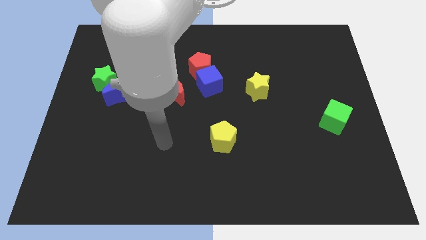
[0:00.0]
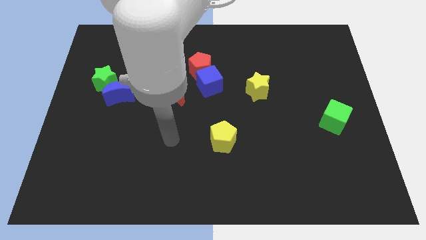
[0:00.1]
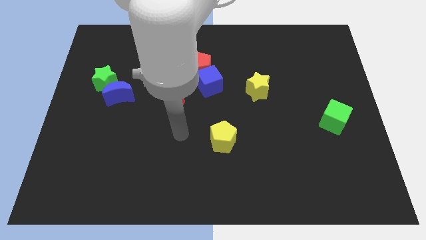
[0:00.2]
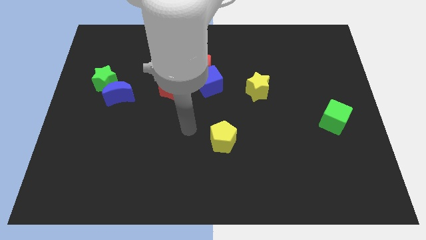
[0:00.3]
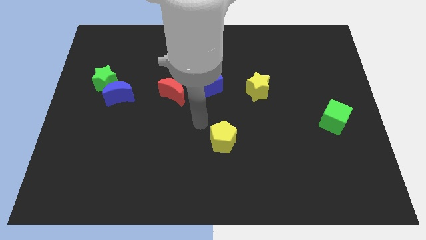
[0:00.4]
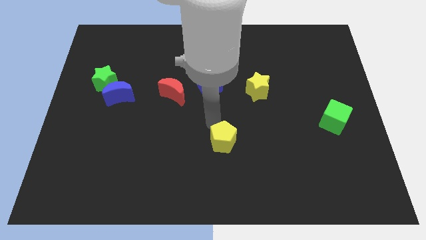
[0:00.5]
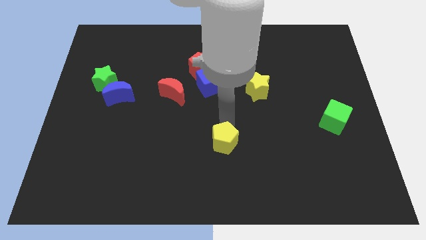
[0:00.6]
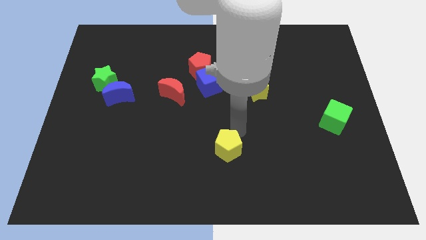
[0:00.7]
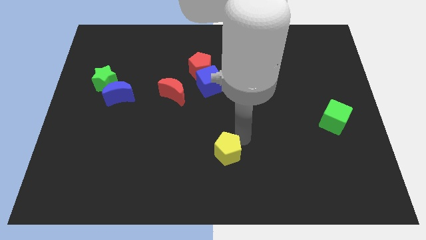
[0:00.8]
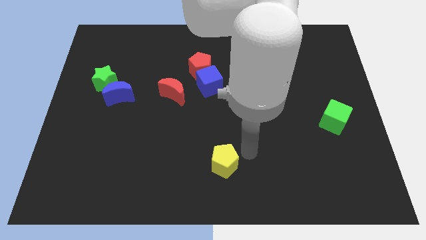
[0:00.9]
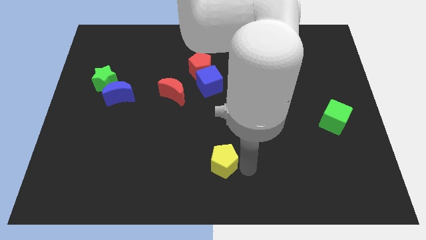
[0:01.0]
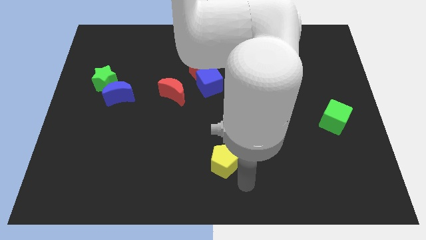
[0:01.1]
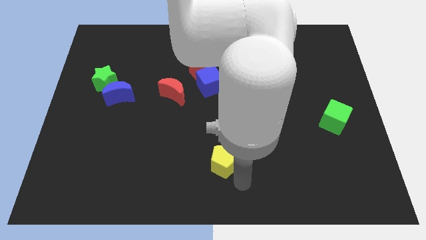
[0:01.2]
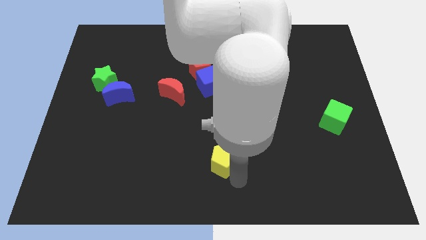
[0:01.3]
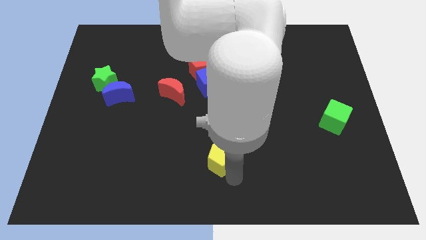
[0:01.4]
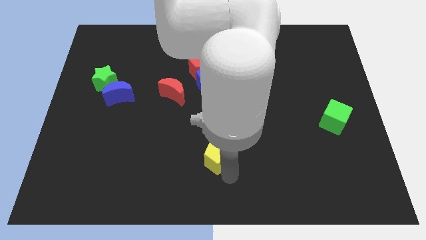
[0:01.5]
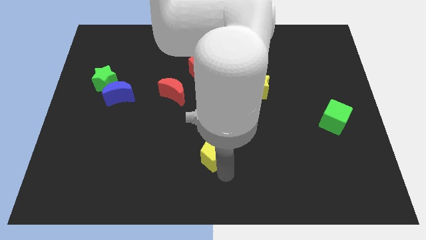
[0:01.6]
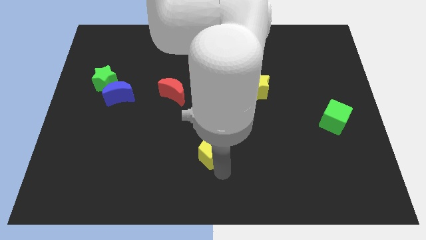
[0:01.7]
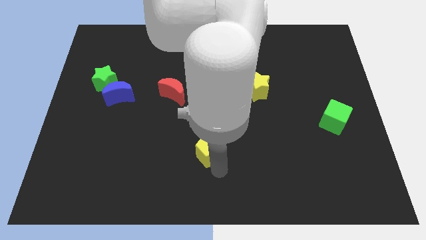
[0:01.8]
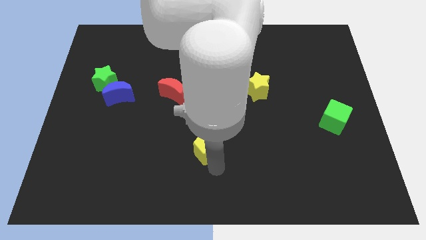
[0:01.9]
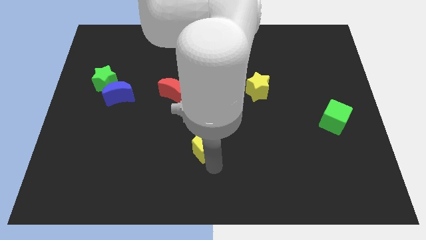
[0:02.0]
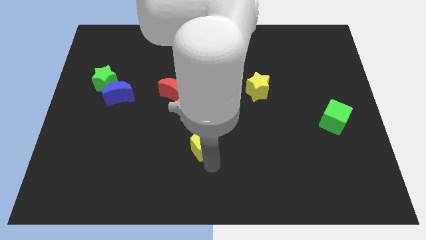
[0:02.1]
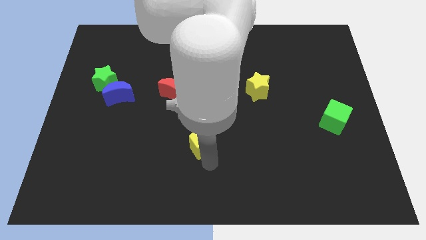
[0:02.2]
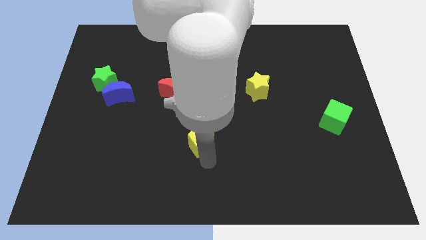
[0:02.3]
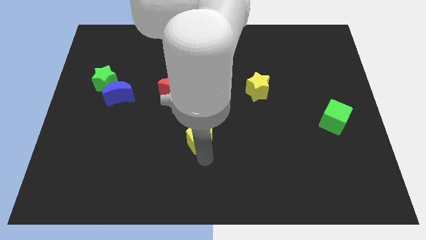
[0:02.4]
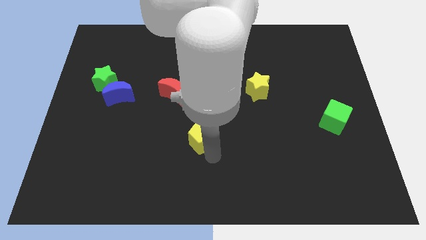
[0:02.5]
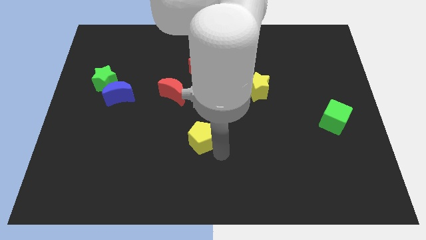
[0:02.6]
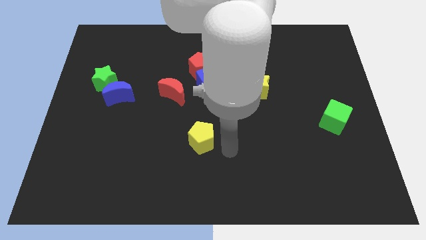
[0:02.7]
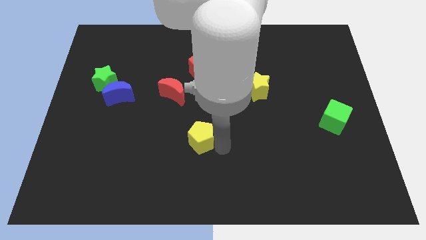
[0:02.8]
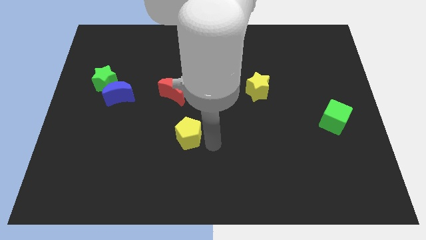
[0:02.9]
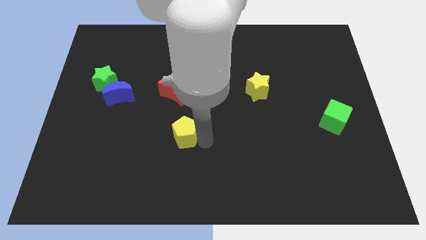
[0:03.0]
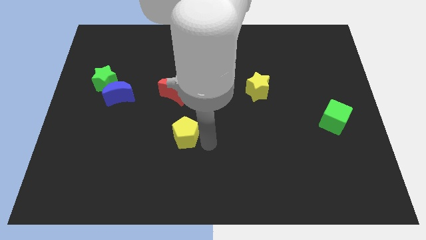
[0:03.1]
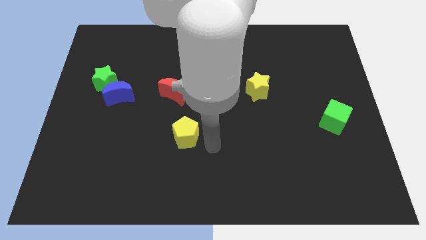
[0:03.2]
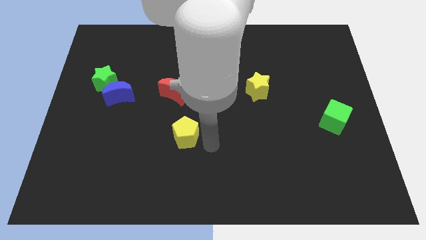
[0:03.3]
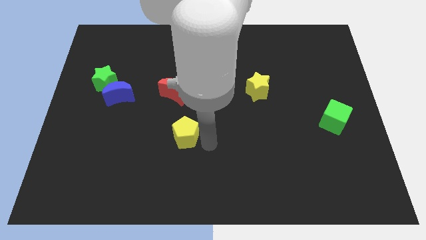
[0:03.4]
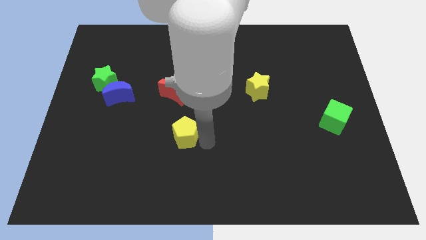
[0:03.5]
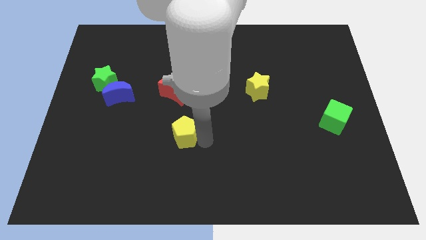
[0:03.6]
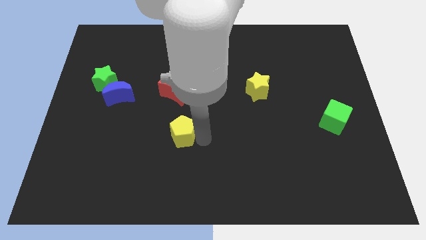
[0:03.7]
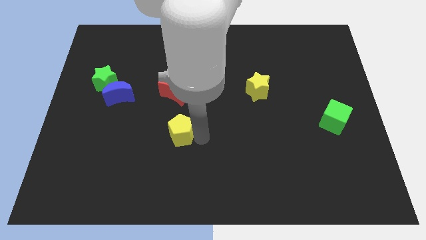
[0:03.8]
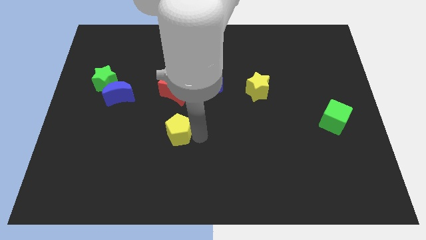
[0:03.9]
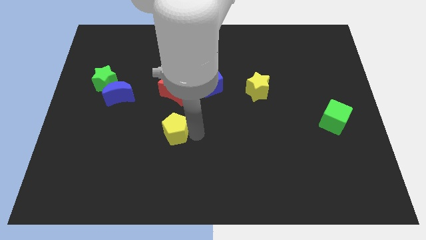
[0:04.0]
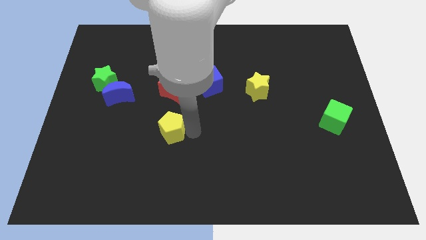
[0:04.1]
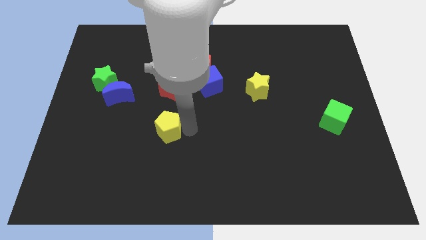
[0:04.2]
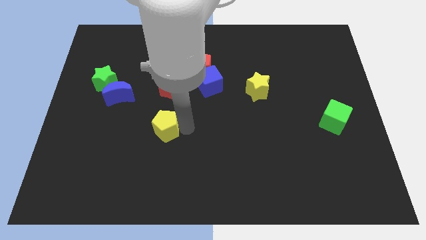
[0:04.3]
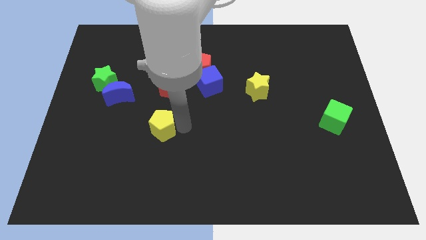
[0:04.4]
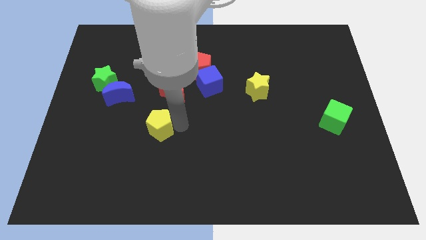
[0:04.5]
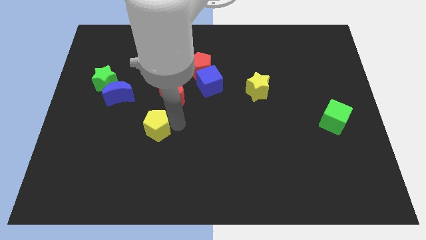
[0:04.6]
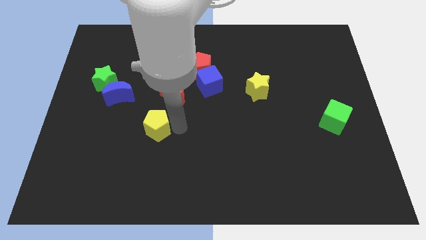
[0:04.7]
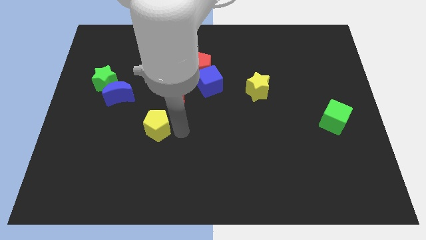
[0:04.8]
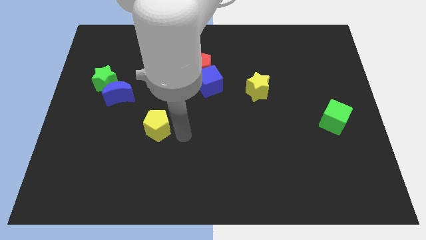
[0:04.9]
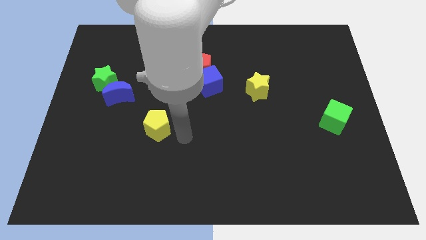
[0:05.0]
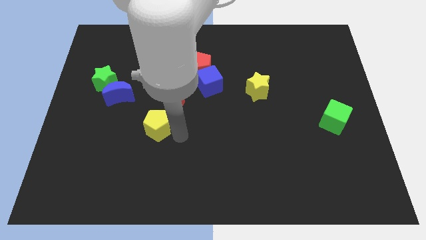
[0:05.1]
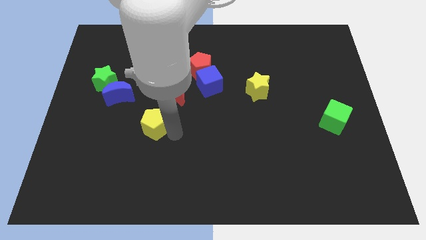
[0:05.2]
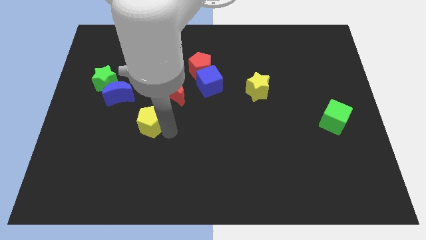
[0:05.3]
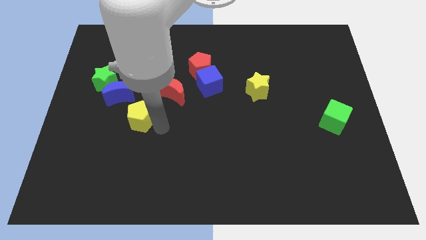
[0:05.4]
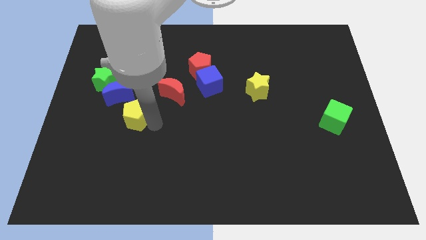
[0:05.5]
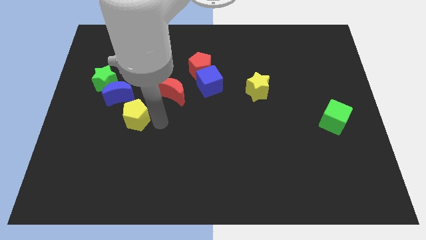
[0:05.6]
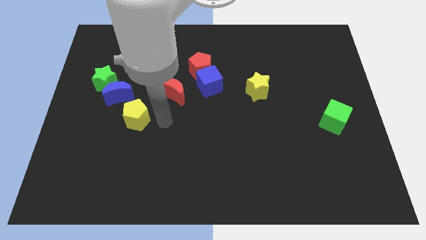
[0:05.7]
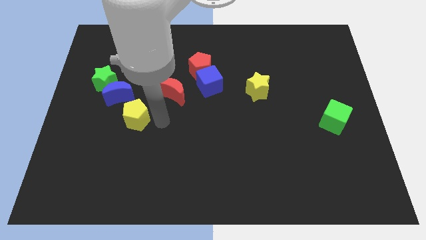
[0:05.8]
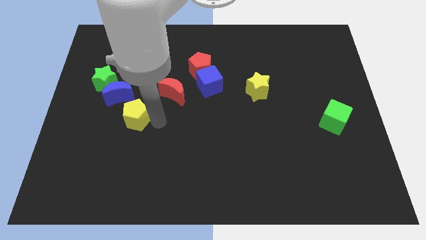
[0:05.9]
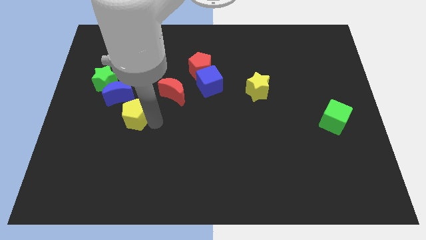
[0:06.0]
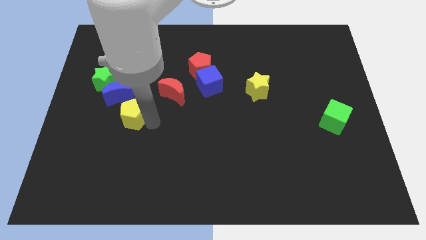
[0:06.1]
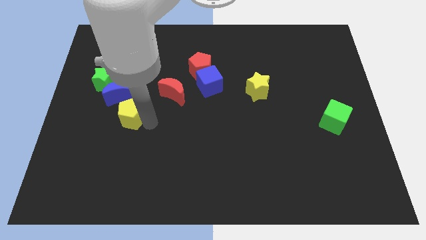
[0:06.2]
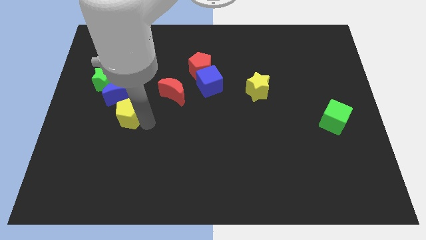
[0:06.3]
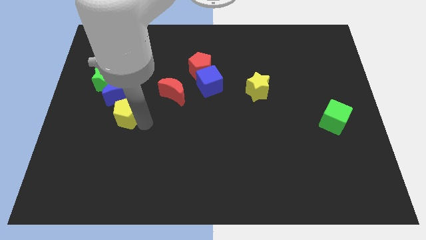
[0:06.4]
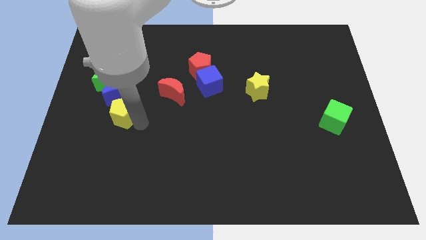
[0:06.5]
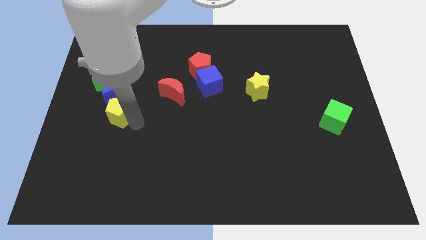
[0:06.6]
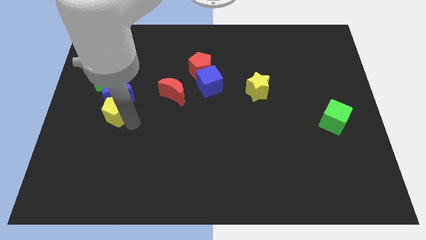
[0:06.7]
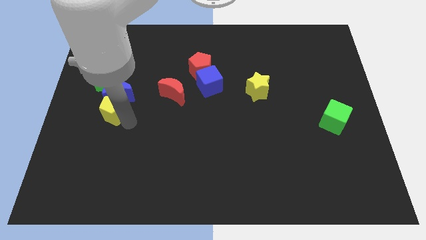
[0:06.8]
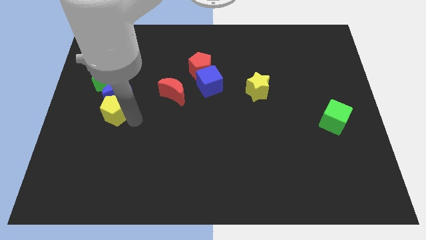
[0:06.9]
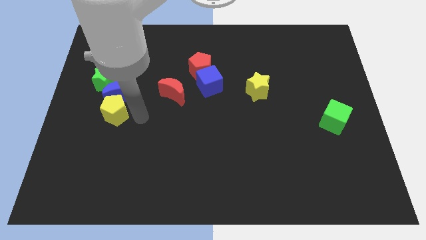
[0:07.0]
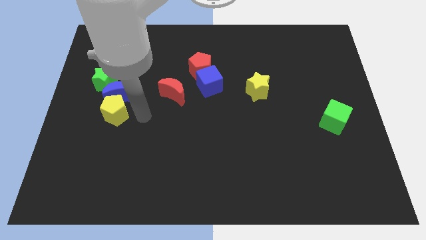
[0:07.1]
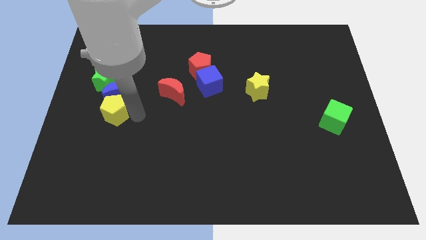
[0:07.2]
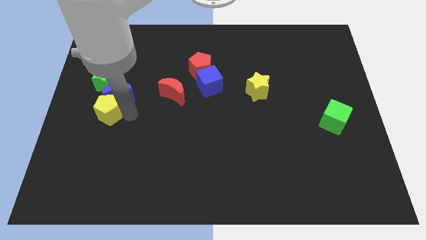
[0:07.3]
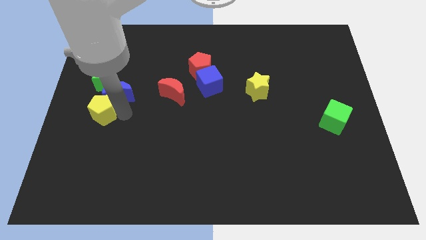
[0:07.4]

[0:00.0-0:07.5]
move the yellow pentagon to the left side

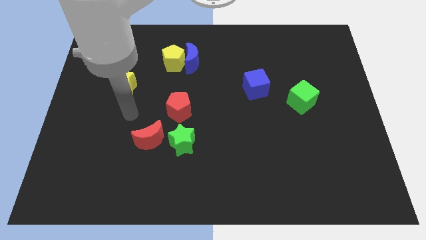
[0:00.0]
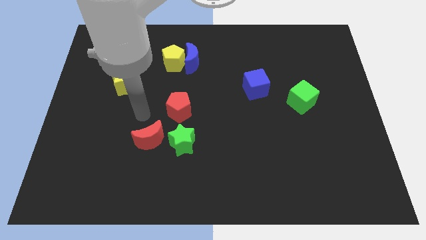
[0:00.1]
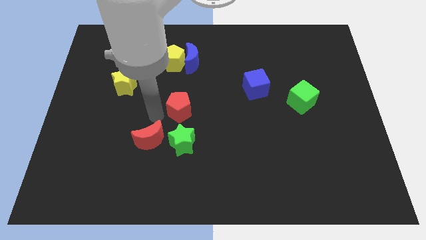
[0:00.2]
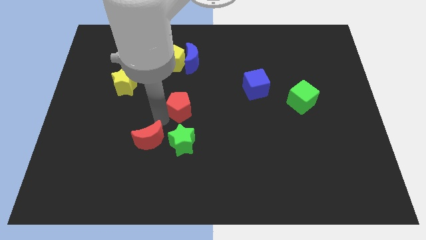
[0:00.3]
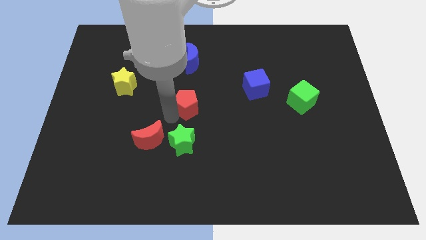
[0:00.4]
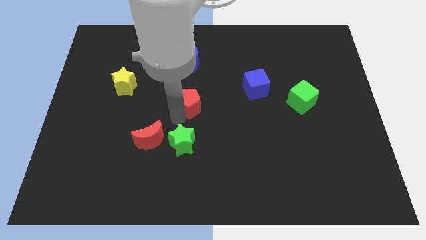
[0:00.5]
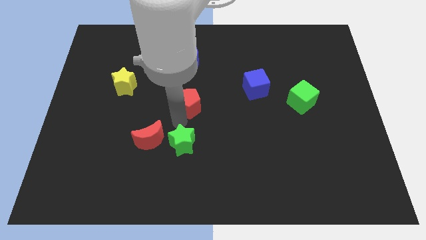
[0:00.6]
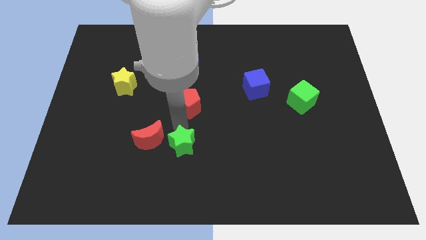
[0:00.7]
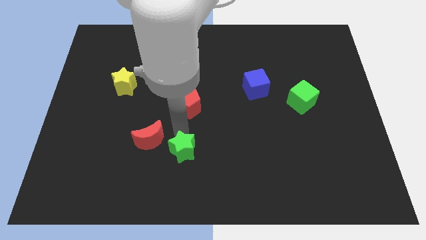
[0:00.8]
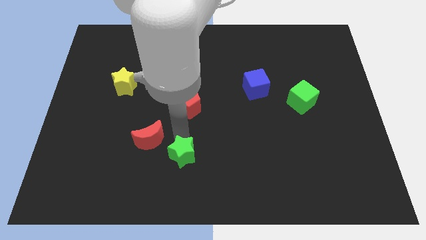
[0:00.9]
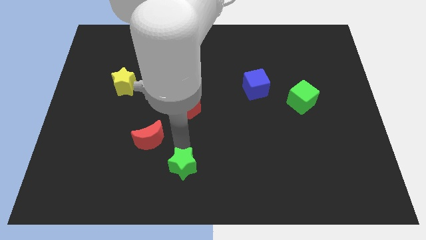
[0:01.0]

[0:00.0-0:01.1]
put the green star to the bottom
